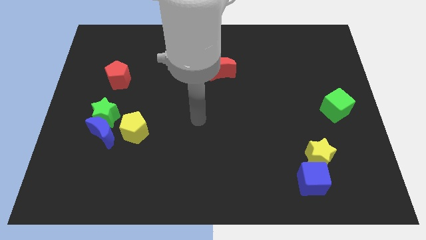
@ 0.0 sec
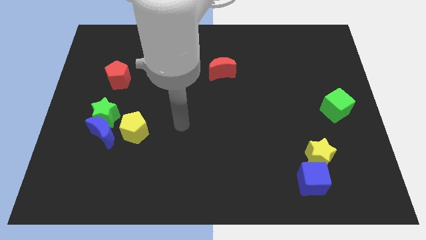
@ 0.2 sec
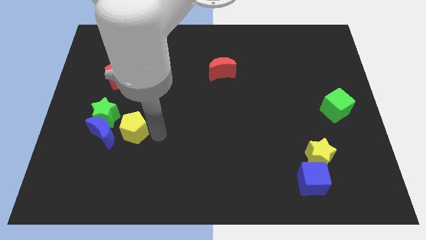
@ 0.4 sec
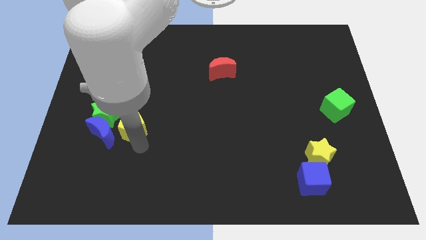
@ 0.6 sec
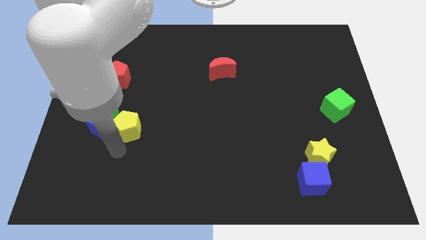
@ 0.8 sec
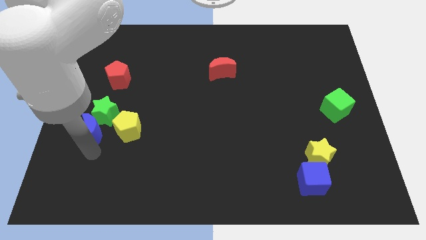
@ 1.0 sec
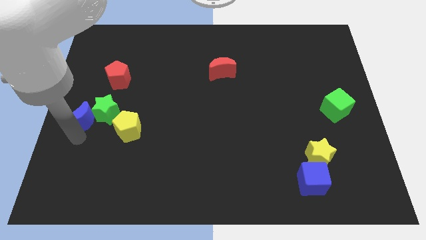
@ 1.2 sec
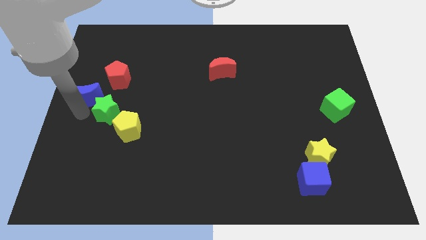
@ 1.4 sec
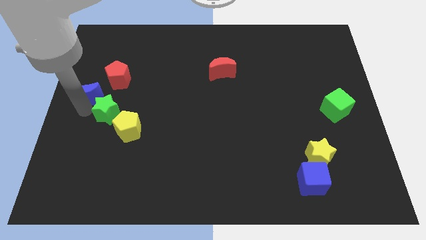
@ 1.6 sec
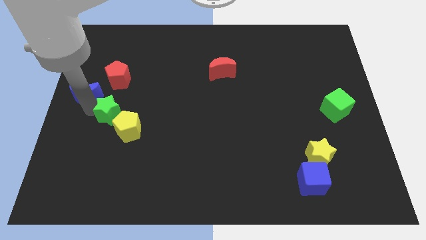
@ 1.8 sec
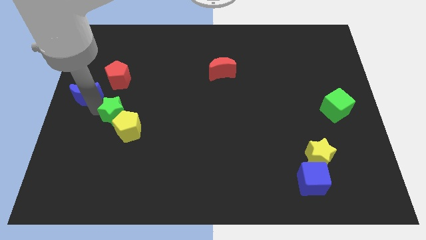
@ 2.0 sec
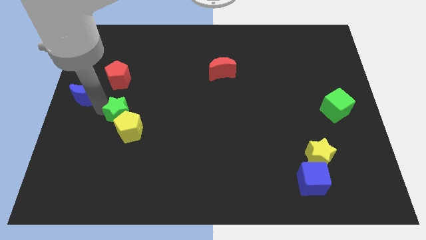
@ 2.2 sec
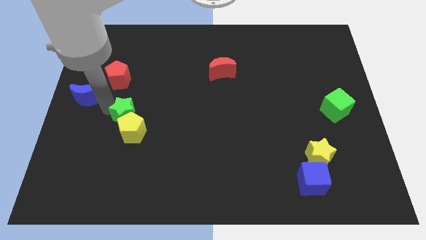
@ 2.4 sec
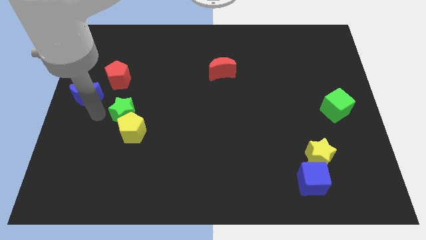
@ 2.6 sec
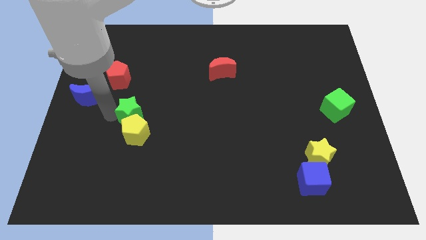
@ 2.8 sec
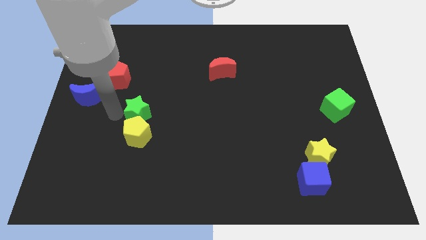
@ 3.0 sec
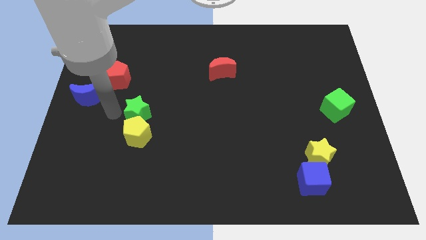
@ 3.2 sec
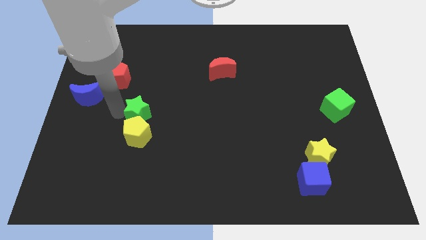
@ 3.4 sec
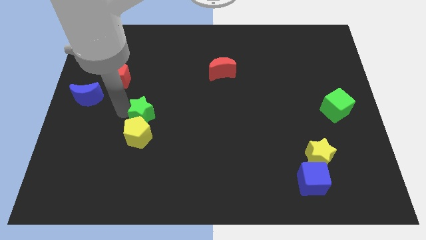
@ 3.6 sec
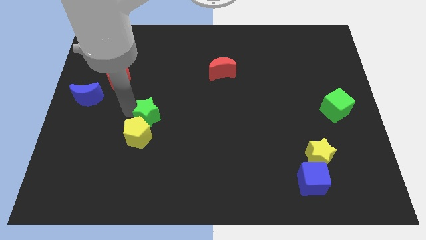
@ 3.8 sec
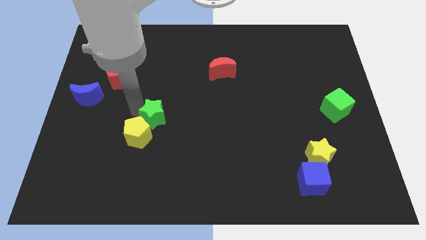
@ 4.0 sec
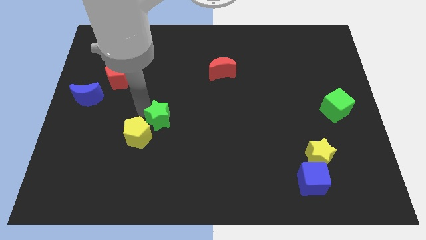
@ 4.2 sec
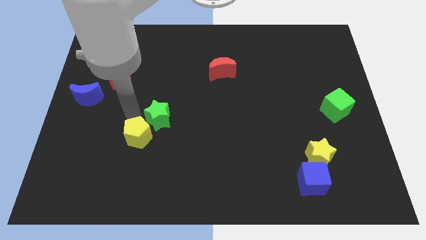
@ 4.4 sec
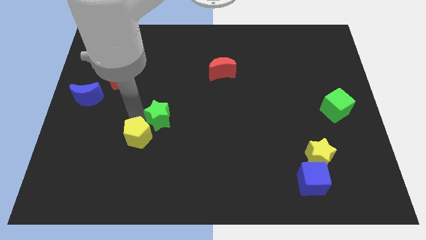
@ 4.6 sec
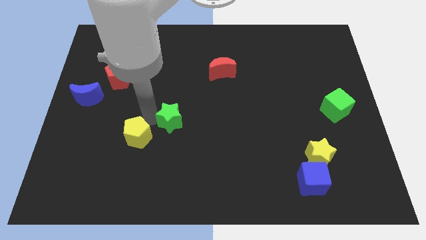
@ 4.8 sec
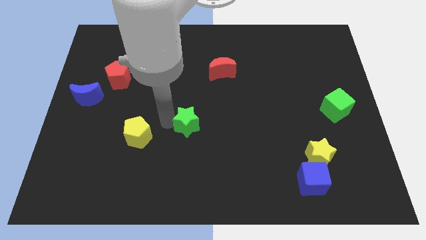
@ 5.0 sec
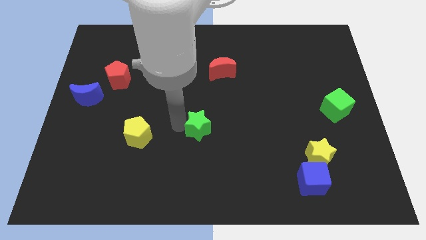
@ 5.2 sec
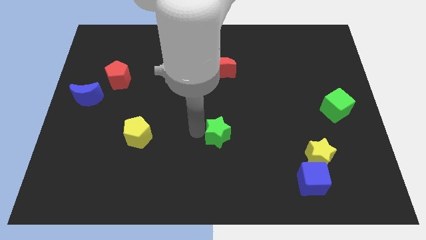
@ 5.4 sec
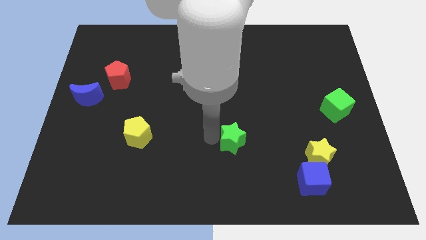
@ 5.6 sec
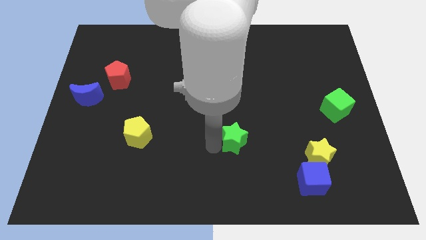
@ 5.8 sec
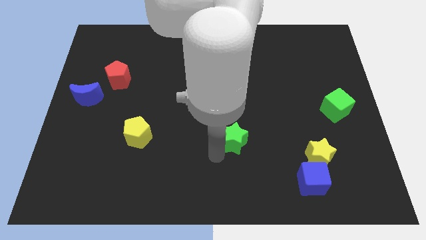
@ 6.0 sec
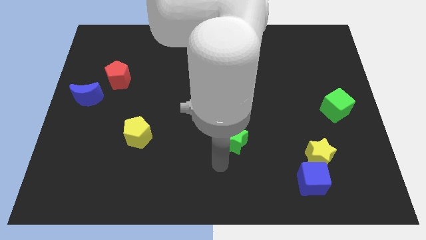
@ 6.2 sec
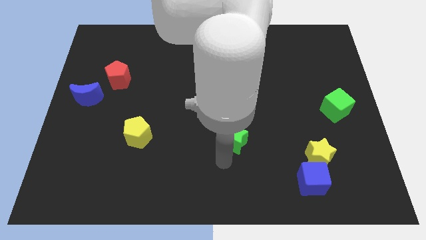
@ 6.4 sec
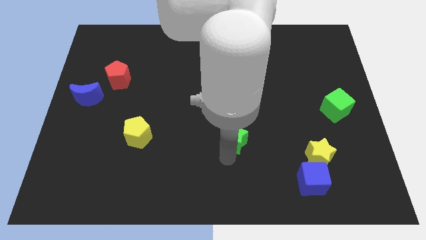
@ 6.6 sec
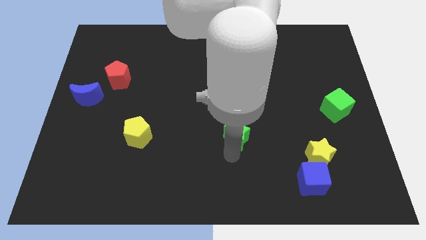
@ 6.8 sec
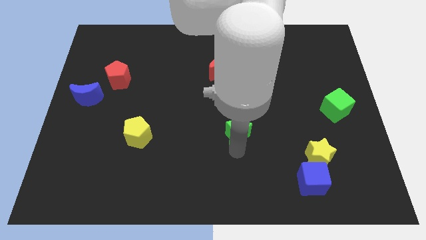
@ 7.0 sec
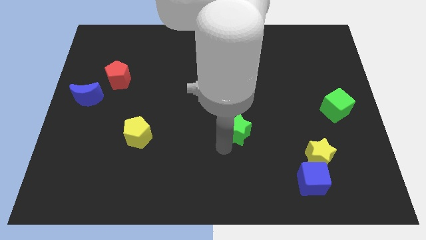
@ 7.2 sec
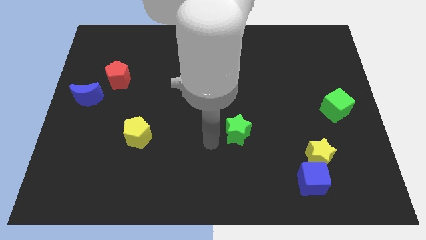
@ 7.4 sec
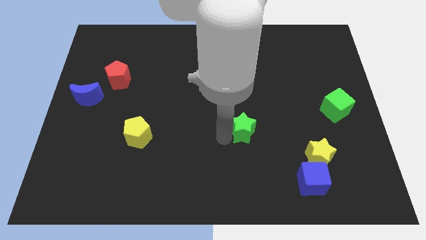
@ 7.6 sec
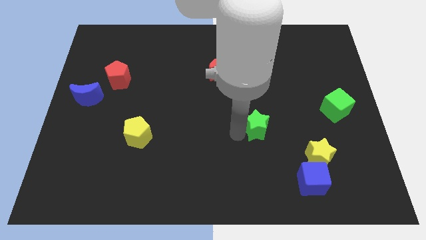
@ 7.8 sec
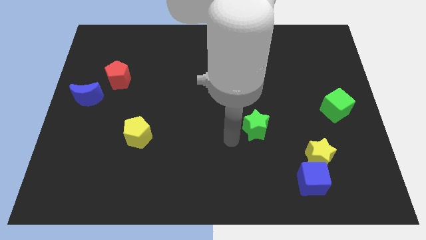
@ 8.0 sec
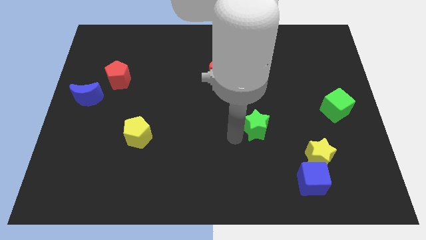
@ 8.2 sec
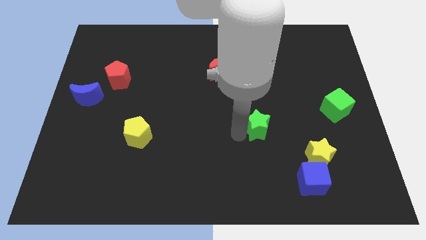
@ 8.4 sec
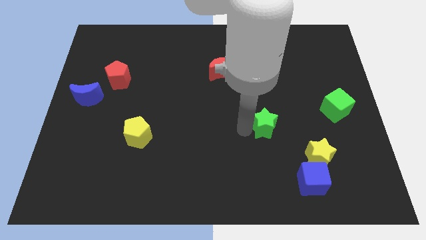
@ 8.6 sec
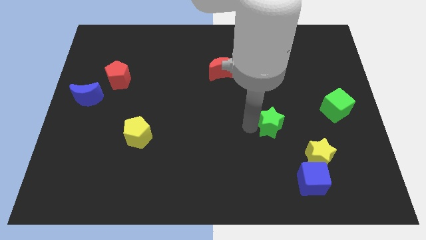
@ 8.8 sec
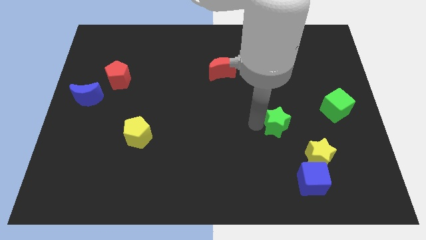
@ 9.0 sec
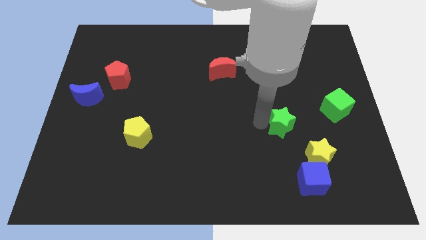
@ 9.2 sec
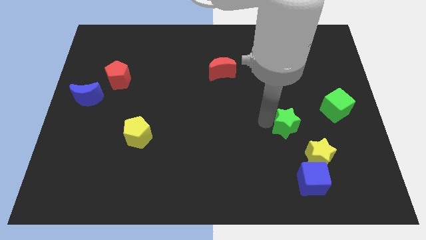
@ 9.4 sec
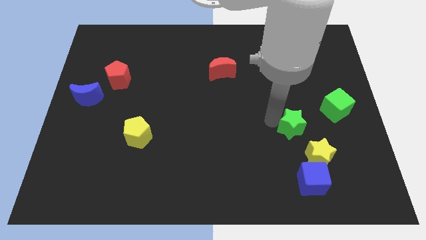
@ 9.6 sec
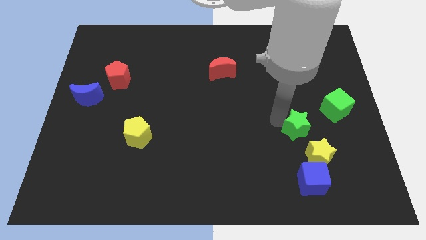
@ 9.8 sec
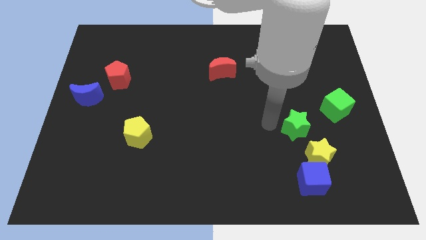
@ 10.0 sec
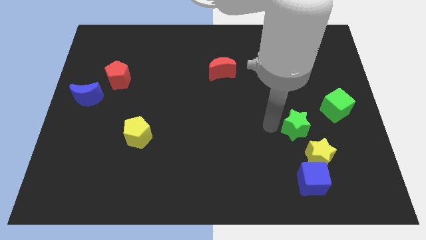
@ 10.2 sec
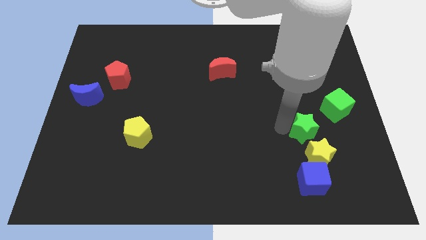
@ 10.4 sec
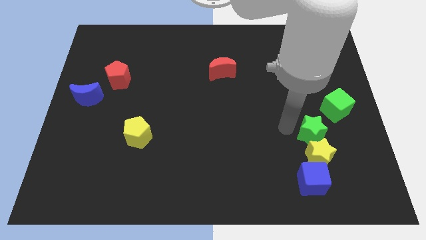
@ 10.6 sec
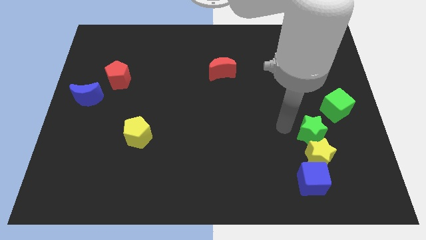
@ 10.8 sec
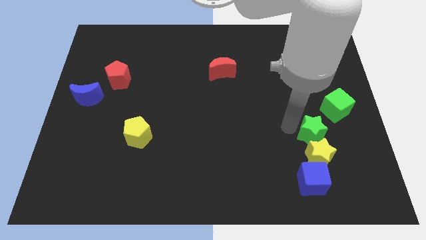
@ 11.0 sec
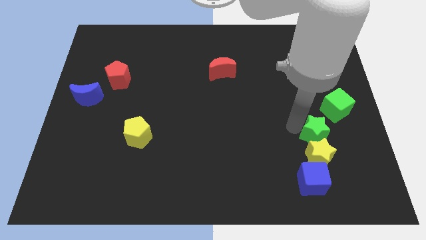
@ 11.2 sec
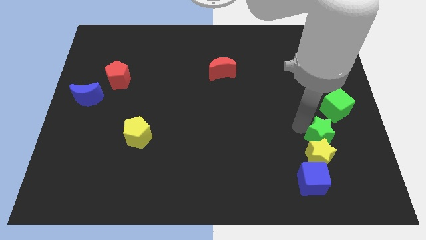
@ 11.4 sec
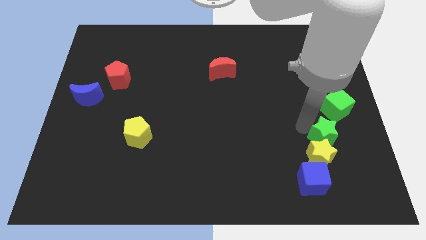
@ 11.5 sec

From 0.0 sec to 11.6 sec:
push the green star below the green cube

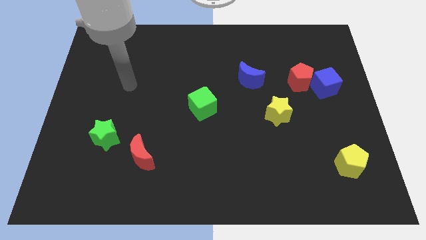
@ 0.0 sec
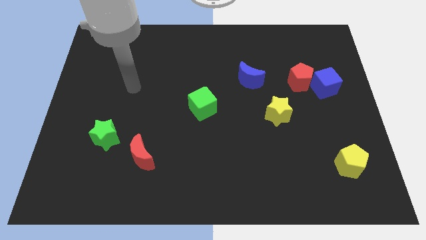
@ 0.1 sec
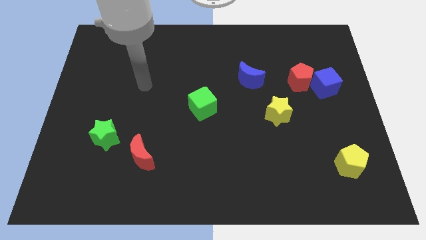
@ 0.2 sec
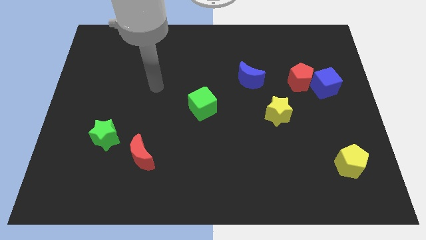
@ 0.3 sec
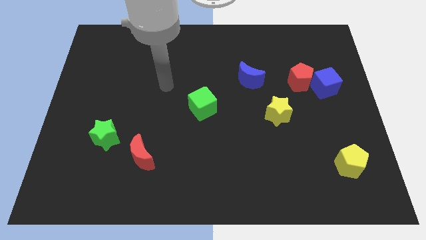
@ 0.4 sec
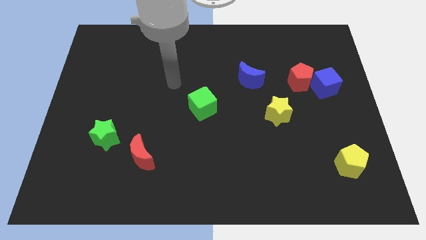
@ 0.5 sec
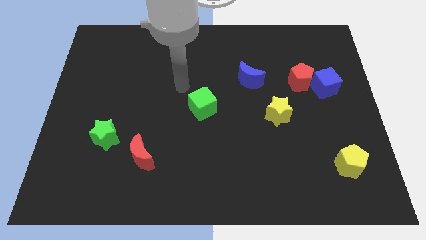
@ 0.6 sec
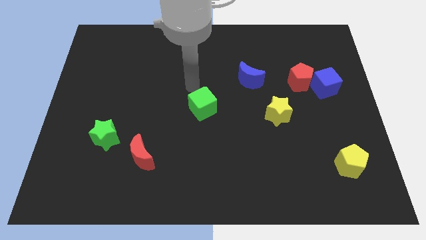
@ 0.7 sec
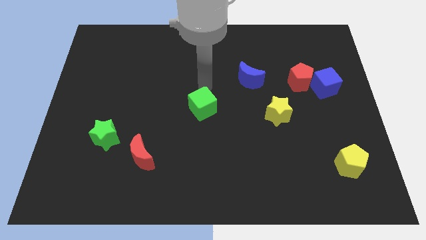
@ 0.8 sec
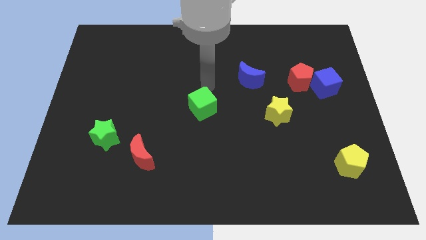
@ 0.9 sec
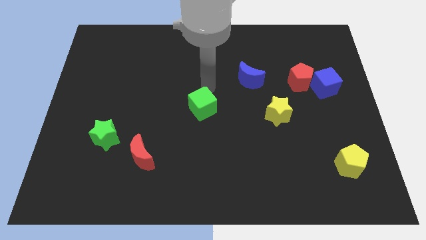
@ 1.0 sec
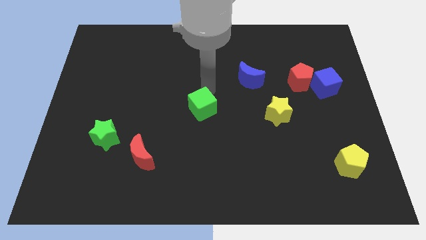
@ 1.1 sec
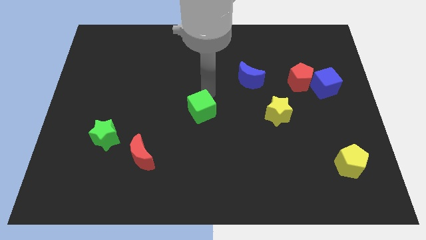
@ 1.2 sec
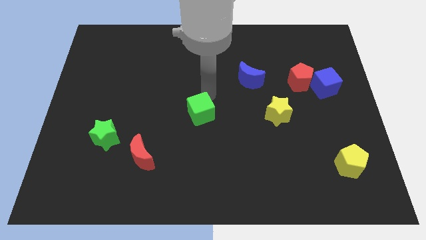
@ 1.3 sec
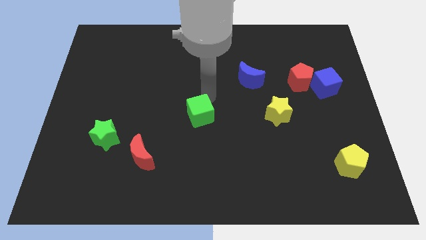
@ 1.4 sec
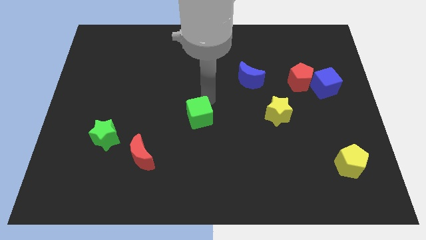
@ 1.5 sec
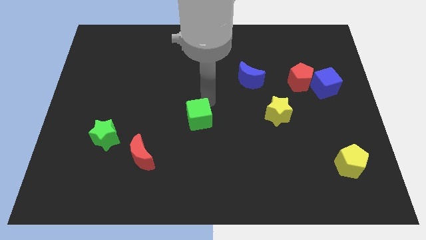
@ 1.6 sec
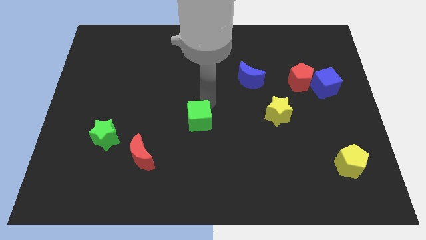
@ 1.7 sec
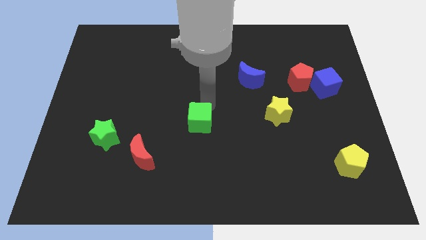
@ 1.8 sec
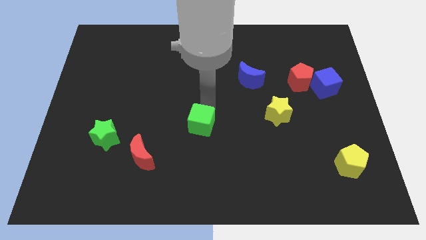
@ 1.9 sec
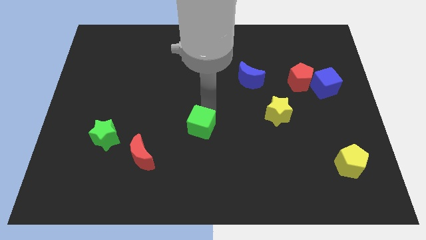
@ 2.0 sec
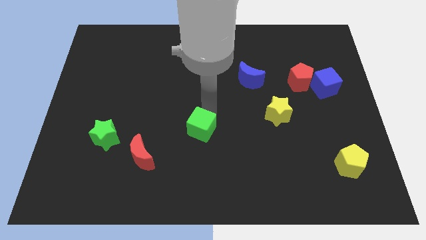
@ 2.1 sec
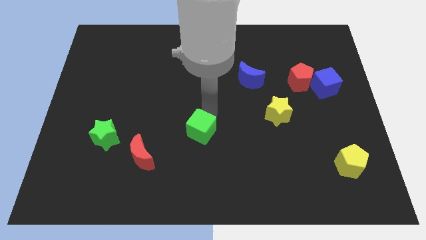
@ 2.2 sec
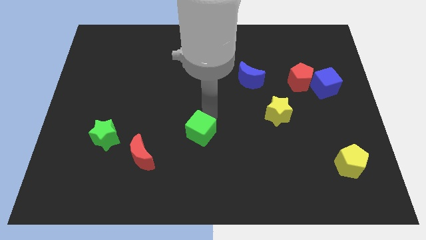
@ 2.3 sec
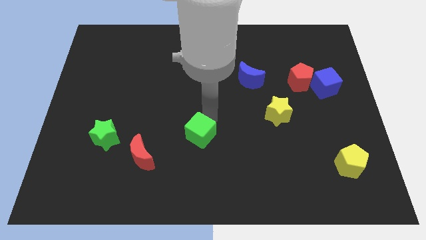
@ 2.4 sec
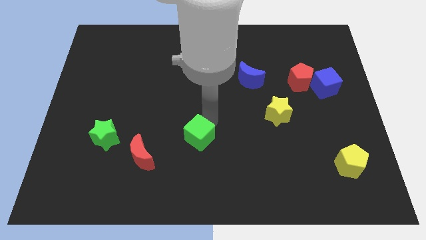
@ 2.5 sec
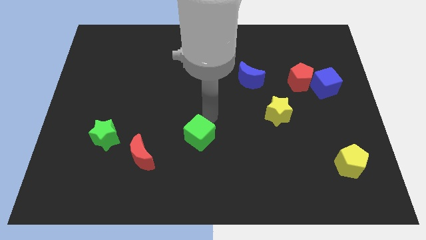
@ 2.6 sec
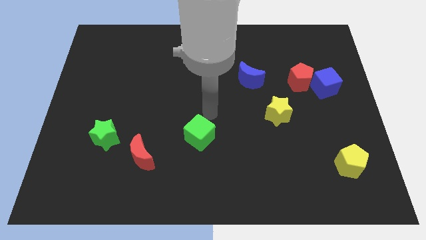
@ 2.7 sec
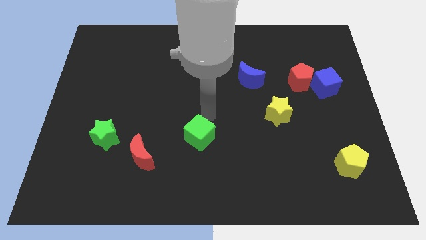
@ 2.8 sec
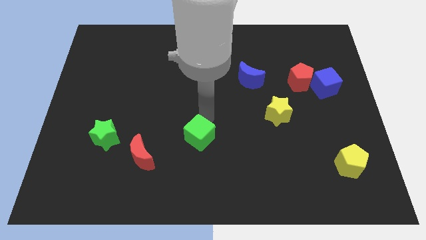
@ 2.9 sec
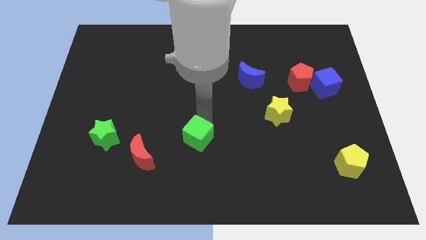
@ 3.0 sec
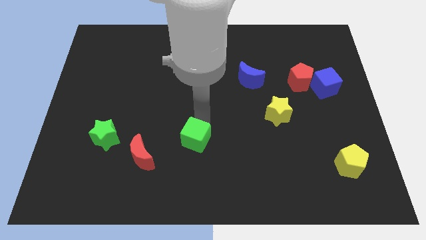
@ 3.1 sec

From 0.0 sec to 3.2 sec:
push the green cube to the right of the red moon
